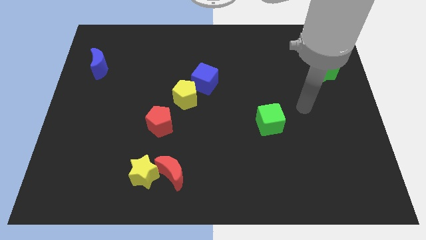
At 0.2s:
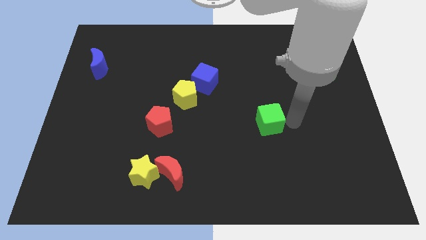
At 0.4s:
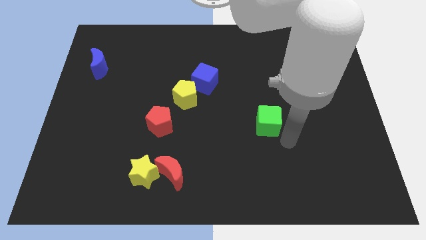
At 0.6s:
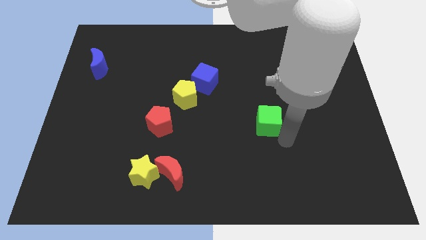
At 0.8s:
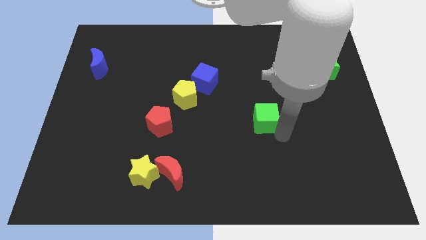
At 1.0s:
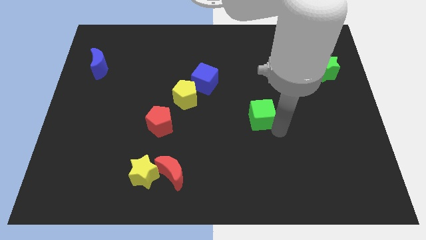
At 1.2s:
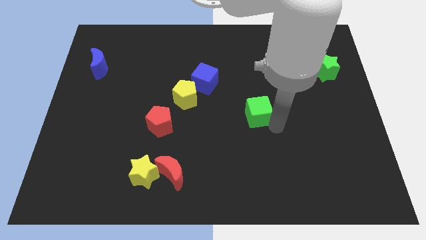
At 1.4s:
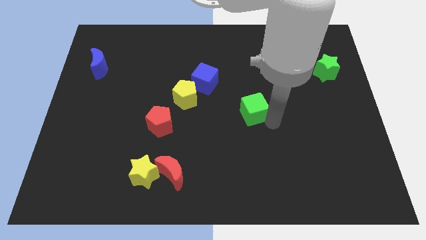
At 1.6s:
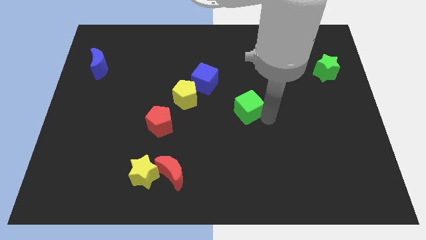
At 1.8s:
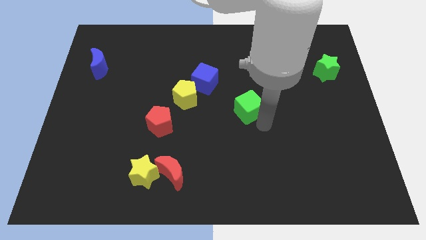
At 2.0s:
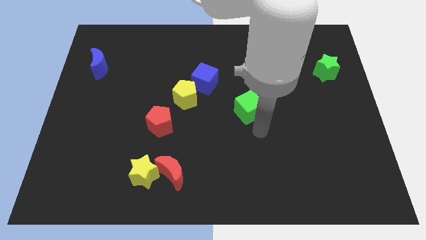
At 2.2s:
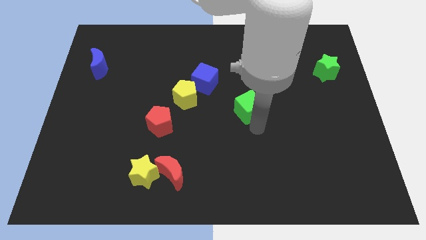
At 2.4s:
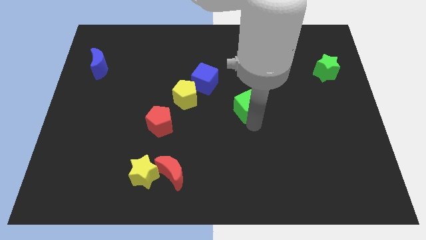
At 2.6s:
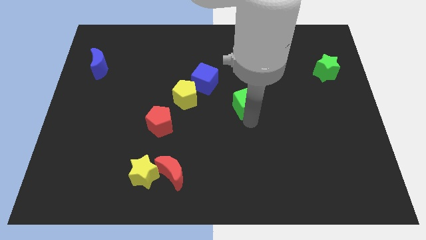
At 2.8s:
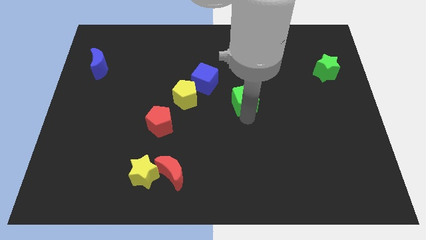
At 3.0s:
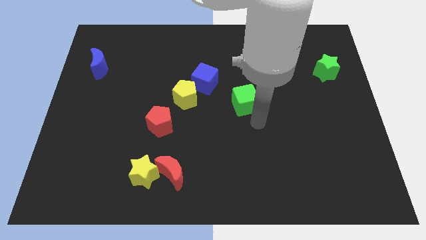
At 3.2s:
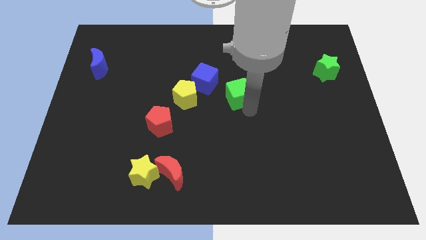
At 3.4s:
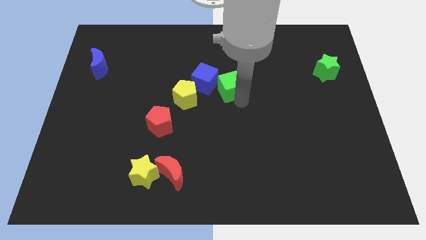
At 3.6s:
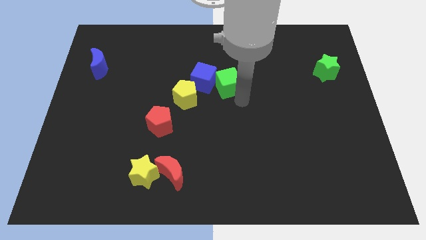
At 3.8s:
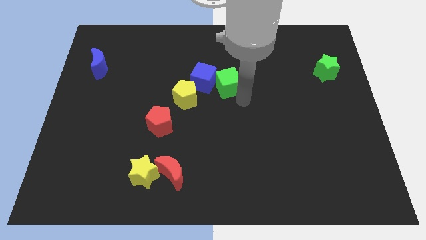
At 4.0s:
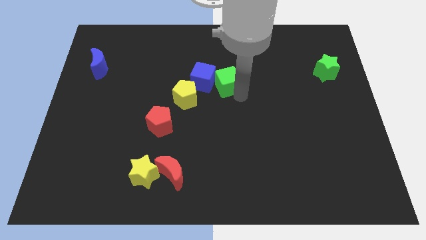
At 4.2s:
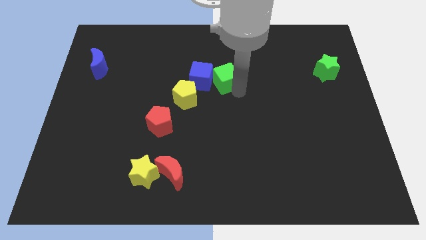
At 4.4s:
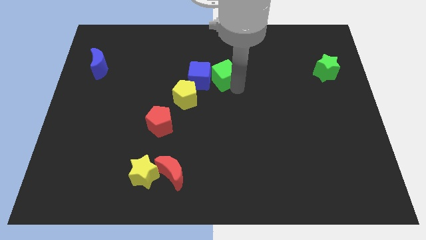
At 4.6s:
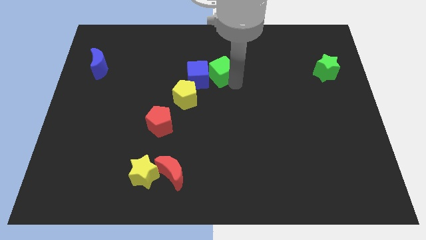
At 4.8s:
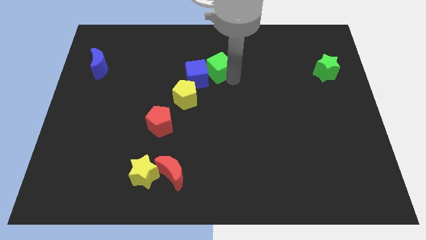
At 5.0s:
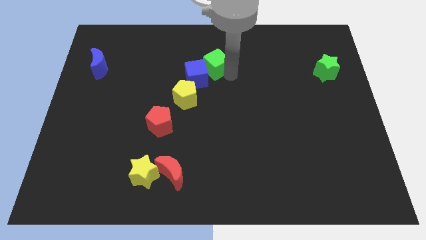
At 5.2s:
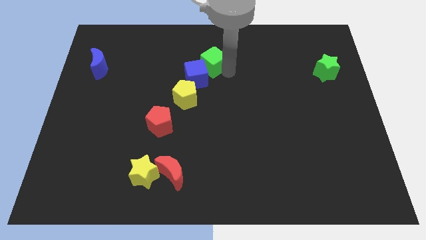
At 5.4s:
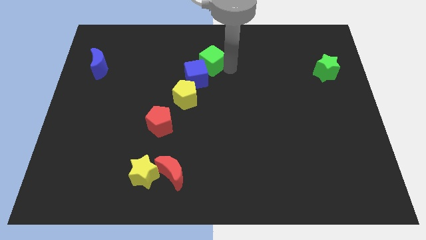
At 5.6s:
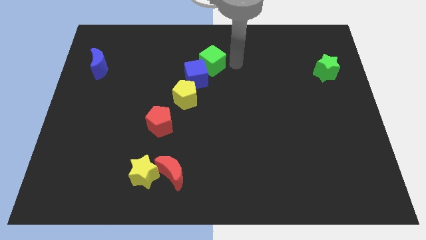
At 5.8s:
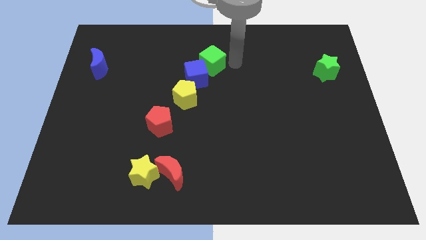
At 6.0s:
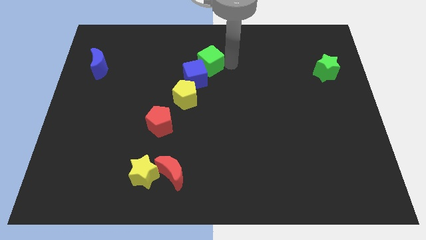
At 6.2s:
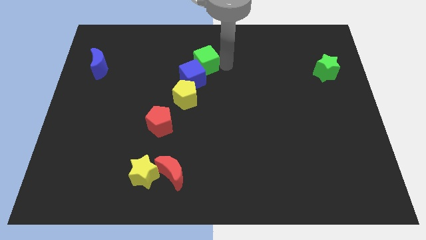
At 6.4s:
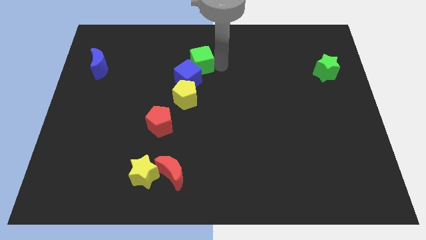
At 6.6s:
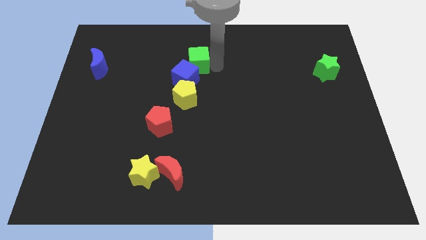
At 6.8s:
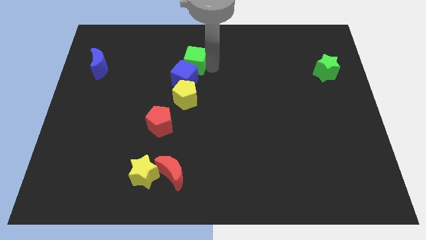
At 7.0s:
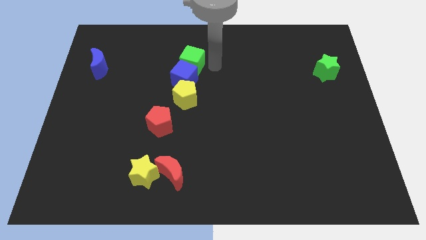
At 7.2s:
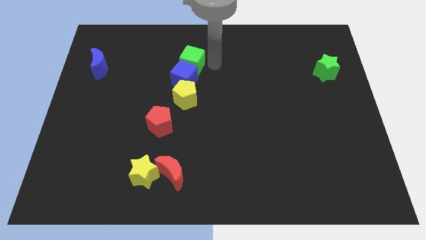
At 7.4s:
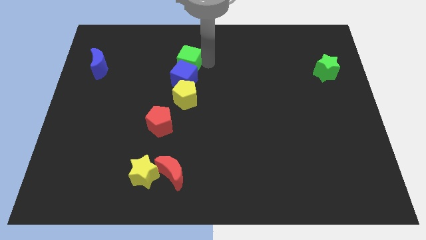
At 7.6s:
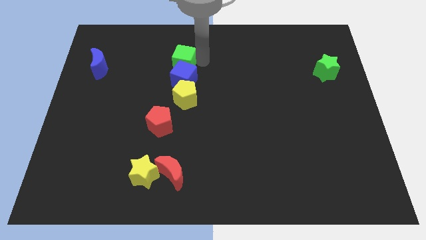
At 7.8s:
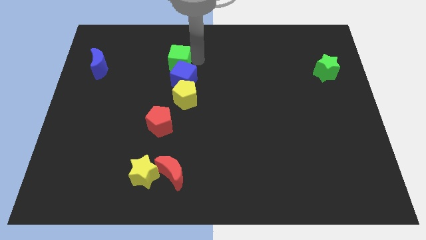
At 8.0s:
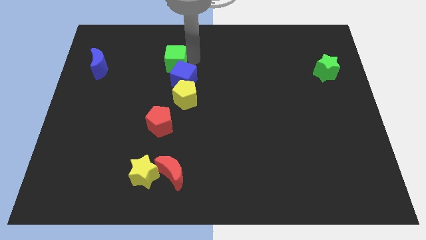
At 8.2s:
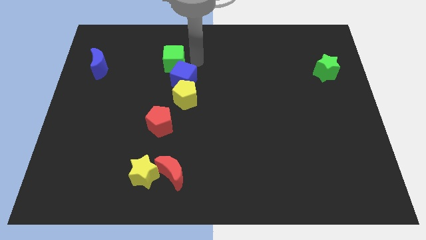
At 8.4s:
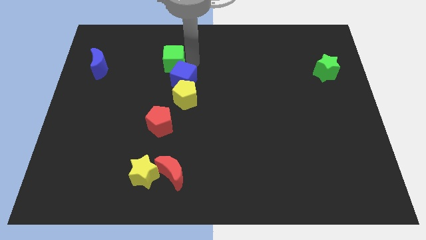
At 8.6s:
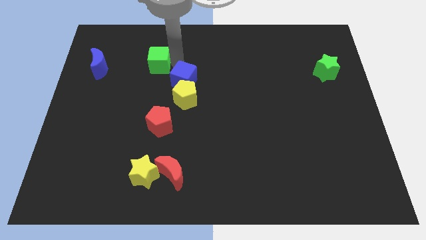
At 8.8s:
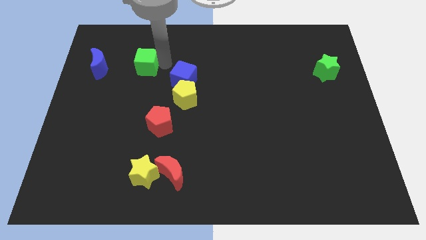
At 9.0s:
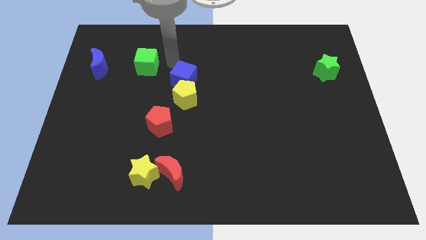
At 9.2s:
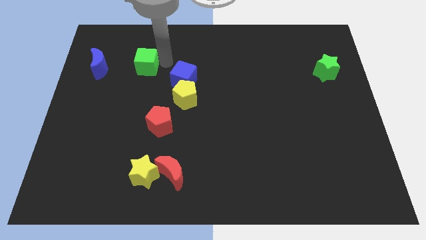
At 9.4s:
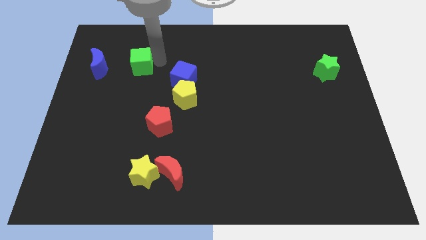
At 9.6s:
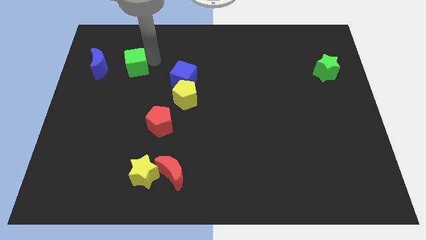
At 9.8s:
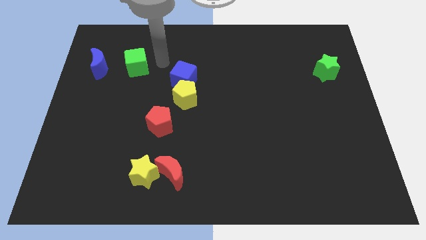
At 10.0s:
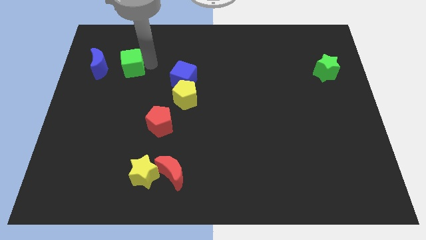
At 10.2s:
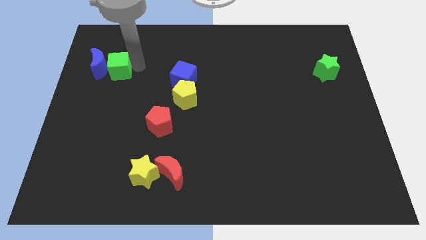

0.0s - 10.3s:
push the green cube next to the blue moon

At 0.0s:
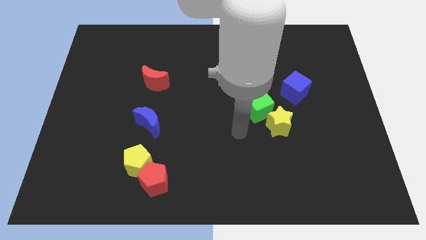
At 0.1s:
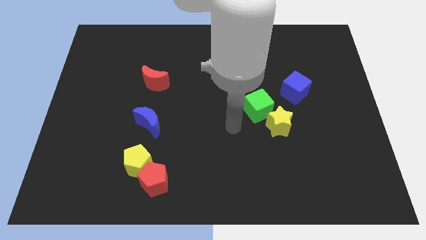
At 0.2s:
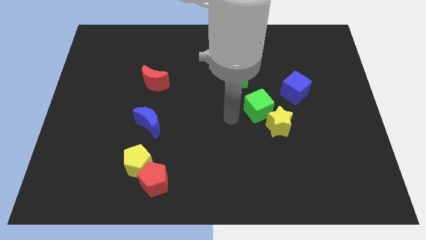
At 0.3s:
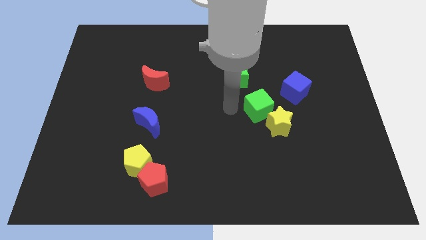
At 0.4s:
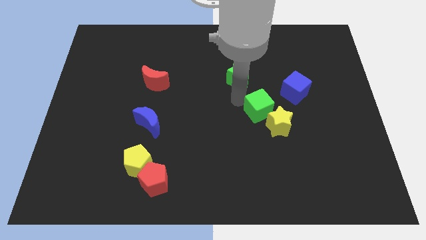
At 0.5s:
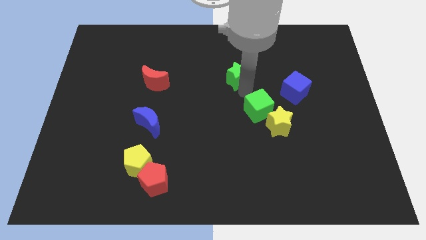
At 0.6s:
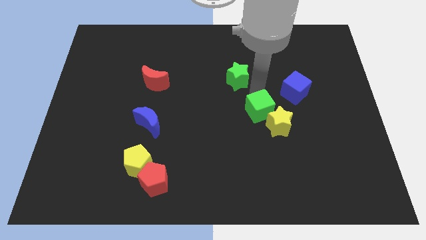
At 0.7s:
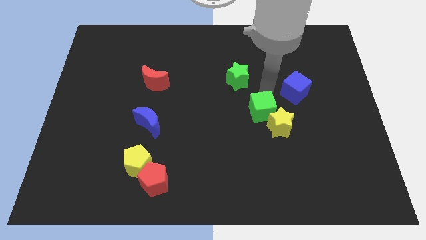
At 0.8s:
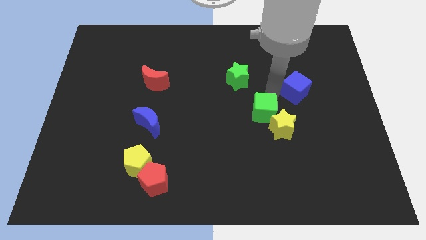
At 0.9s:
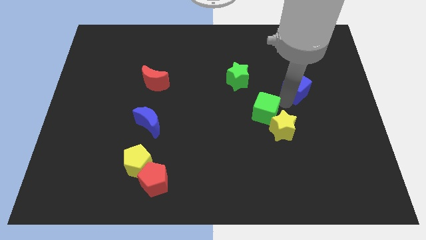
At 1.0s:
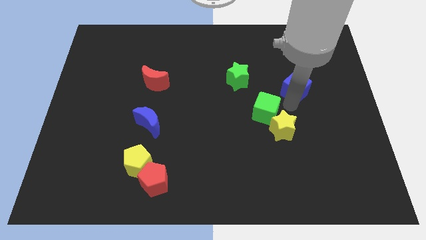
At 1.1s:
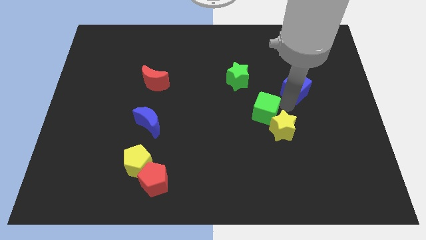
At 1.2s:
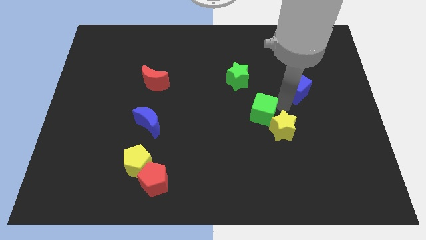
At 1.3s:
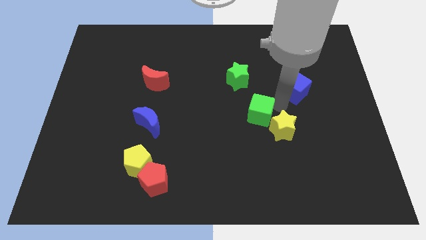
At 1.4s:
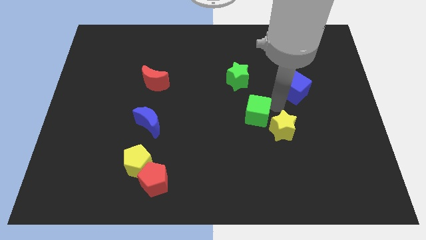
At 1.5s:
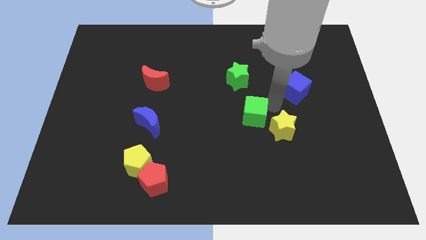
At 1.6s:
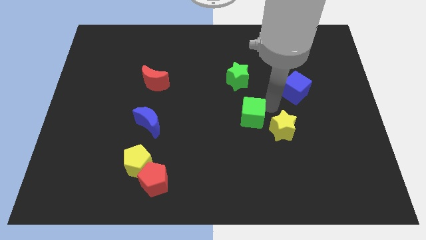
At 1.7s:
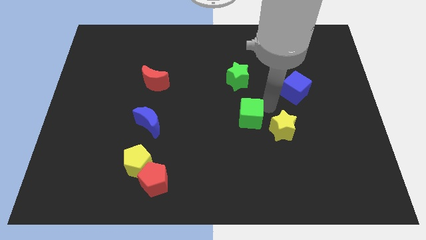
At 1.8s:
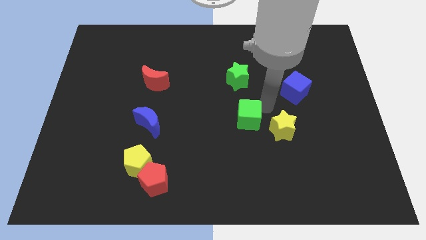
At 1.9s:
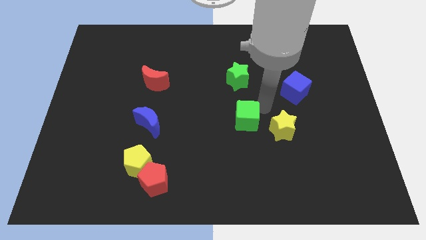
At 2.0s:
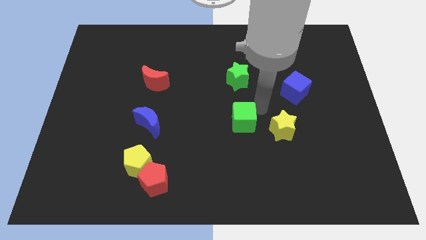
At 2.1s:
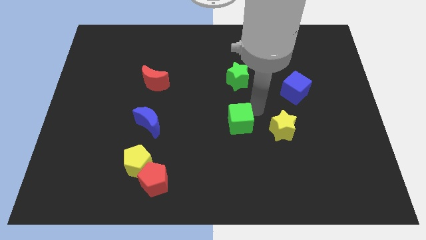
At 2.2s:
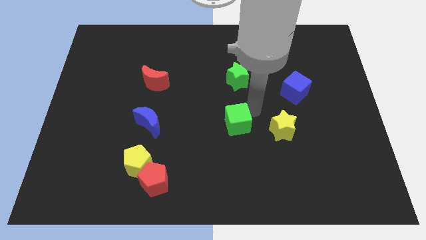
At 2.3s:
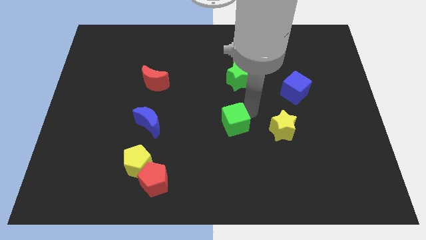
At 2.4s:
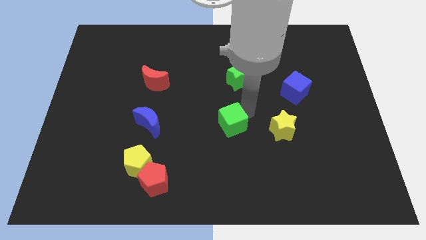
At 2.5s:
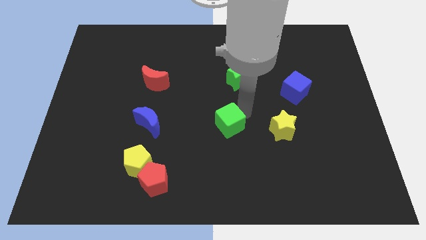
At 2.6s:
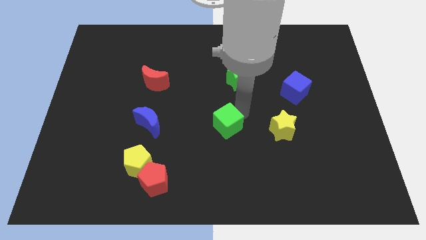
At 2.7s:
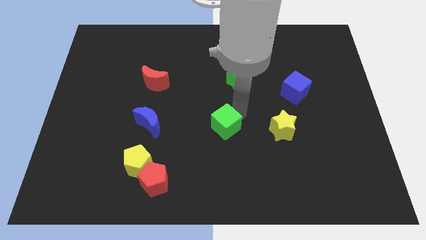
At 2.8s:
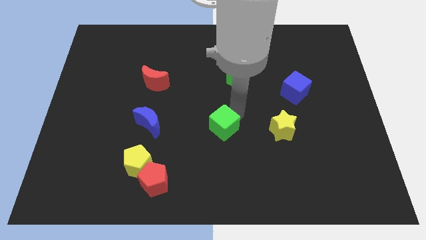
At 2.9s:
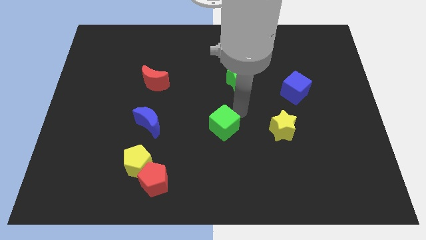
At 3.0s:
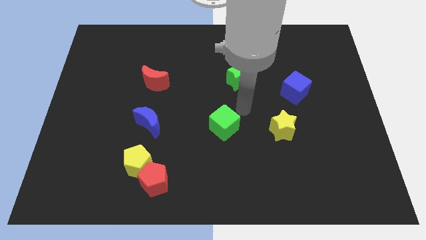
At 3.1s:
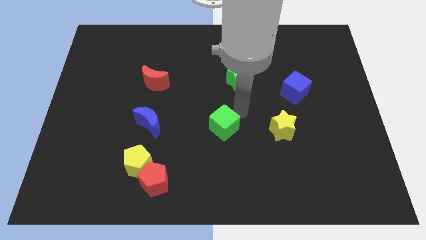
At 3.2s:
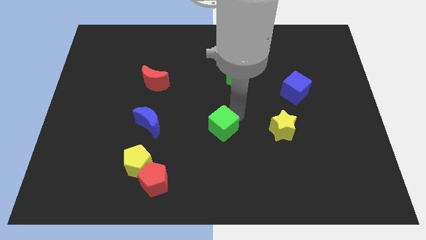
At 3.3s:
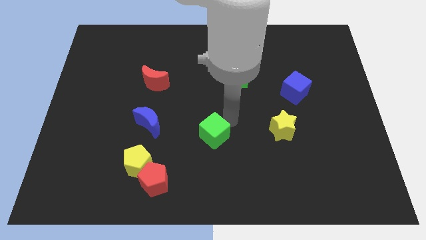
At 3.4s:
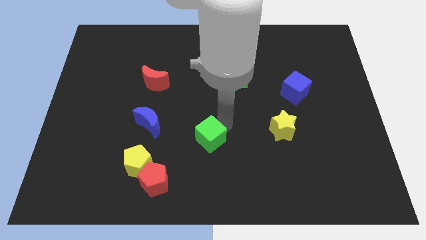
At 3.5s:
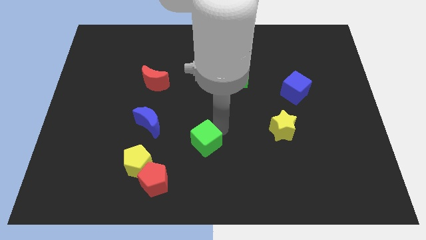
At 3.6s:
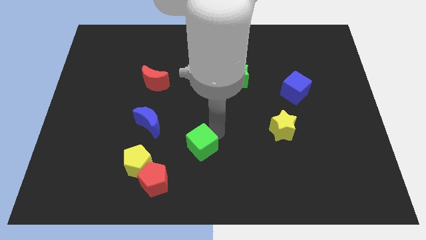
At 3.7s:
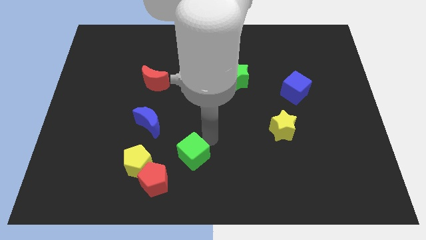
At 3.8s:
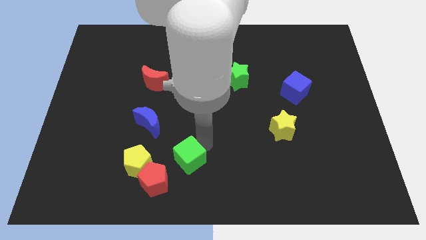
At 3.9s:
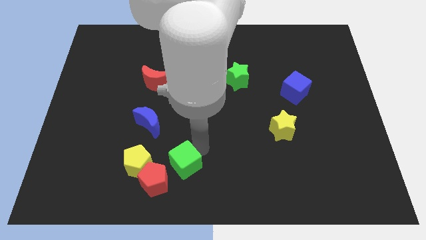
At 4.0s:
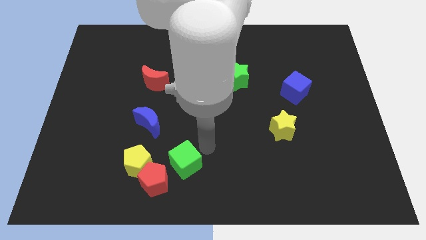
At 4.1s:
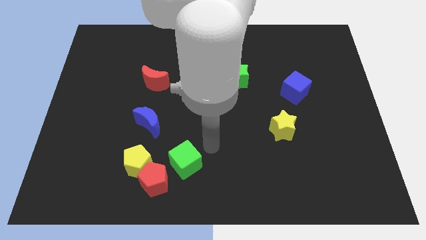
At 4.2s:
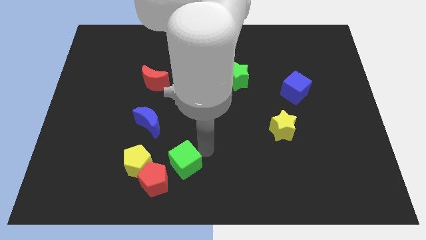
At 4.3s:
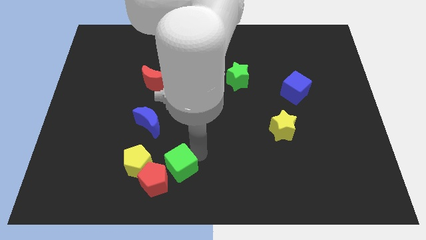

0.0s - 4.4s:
move the green cube next to the red pentagon
